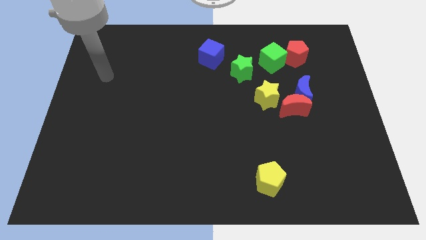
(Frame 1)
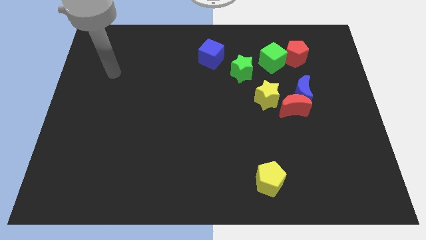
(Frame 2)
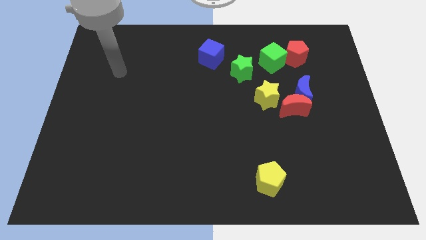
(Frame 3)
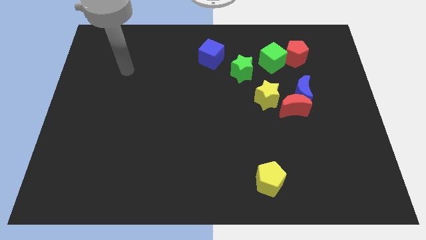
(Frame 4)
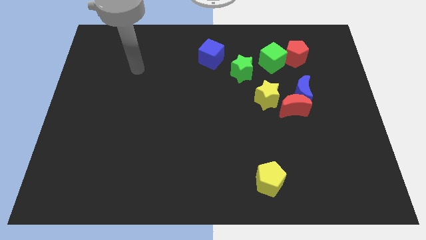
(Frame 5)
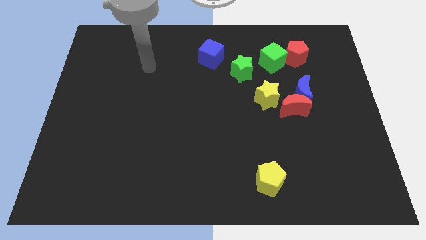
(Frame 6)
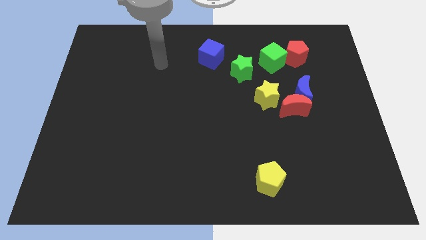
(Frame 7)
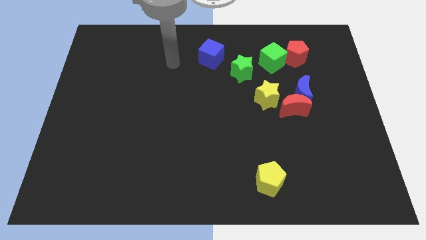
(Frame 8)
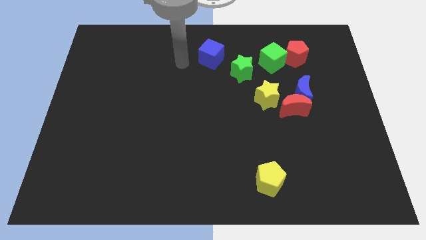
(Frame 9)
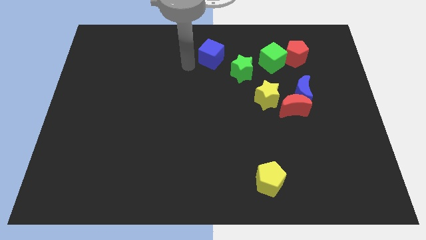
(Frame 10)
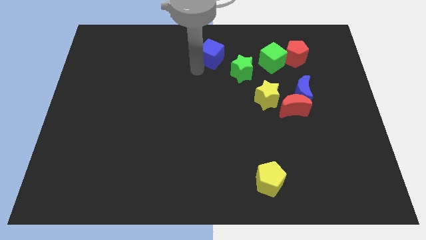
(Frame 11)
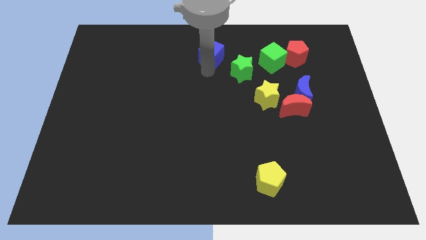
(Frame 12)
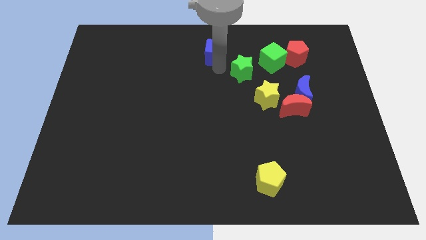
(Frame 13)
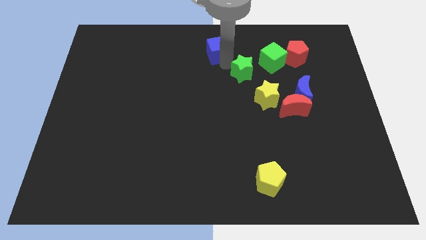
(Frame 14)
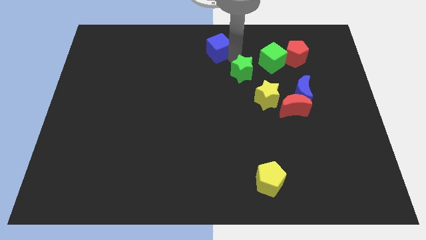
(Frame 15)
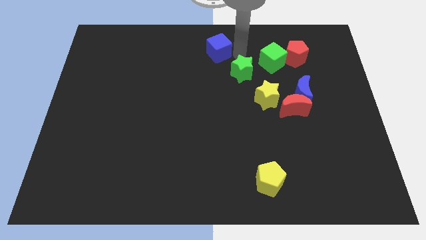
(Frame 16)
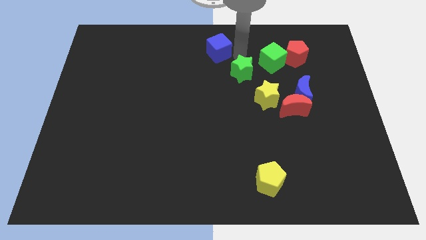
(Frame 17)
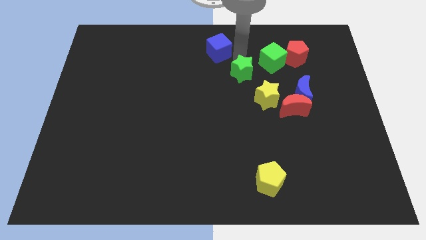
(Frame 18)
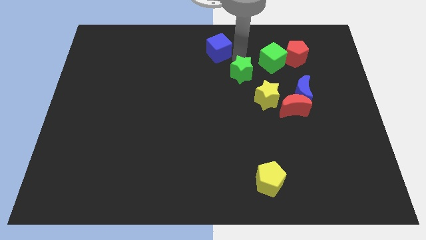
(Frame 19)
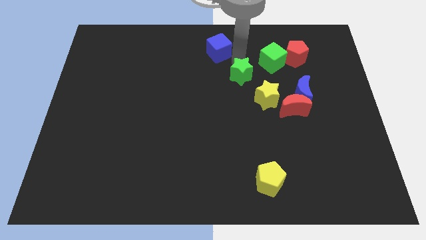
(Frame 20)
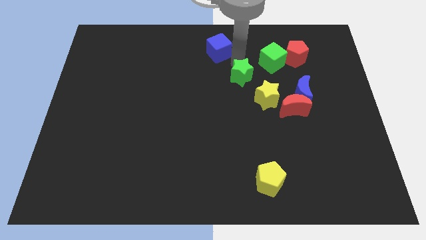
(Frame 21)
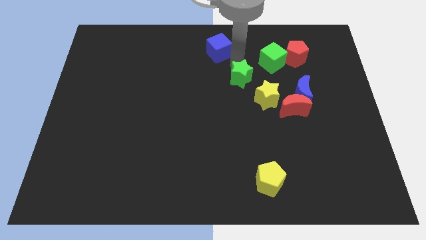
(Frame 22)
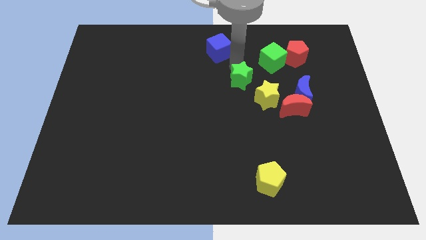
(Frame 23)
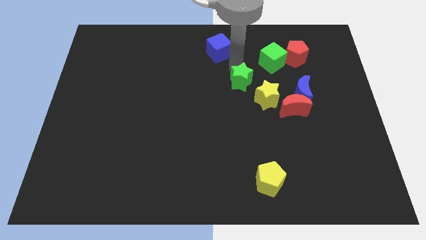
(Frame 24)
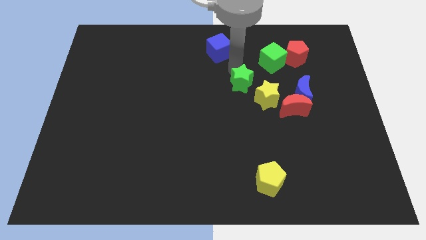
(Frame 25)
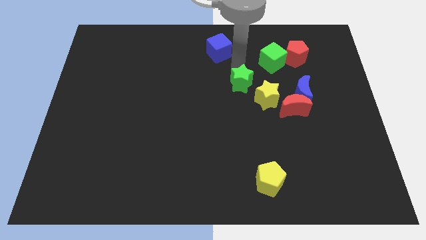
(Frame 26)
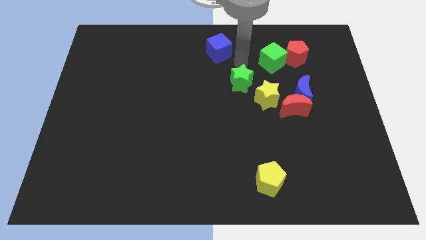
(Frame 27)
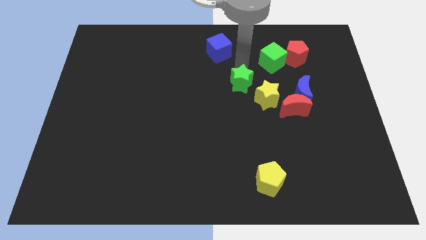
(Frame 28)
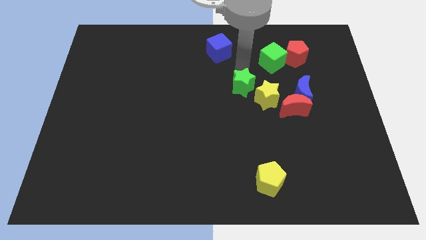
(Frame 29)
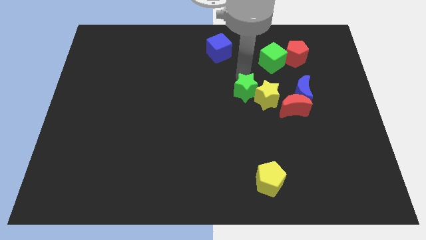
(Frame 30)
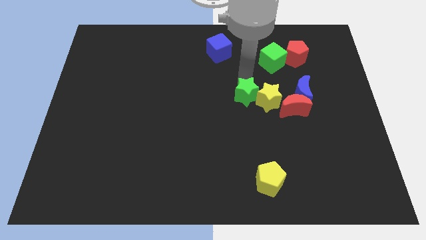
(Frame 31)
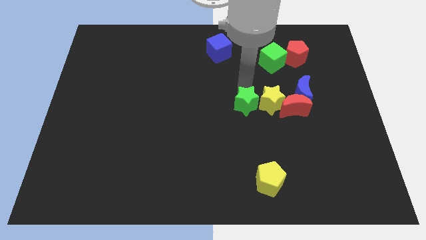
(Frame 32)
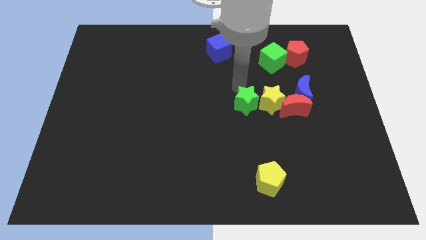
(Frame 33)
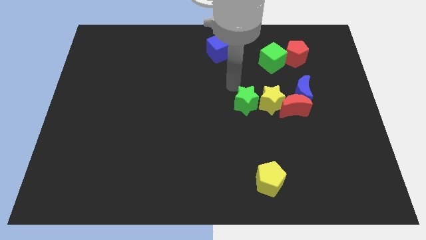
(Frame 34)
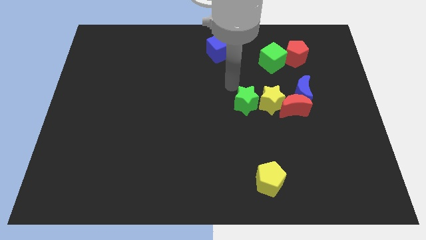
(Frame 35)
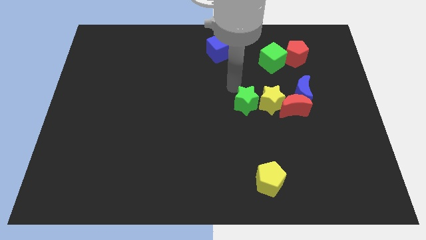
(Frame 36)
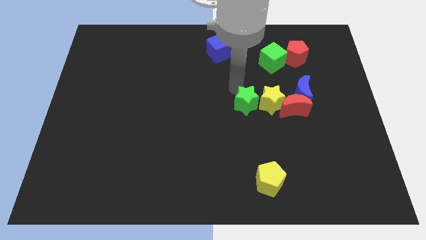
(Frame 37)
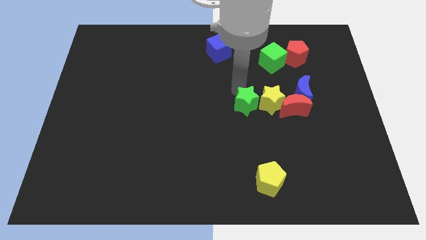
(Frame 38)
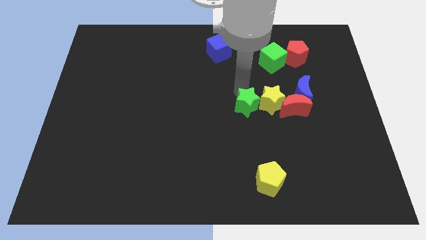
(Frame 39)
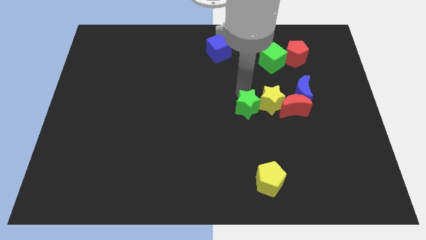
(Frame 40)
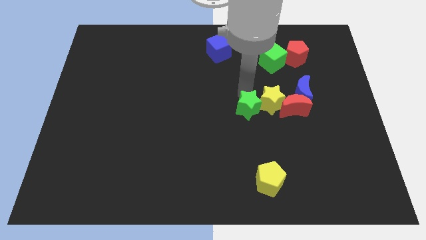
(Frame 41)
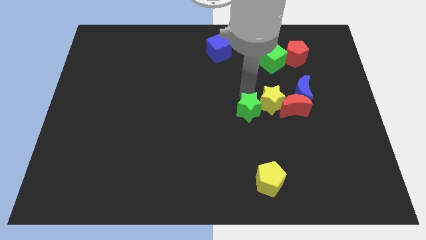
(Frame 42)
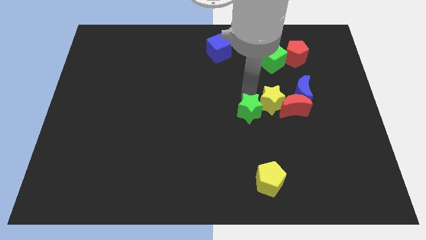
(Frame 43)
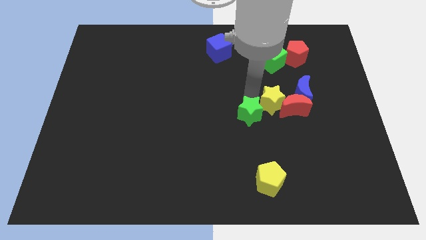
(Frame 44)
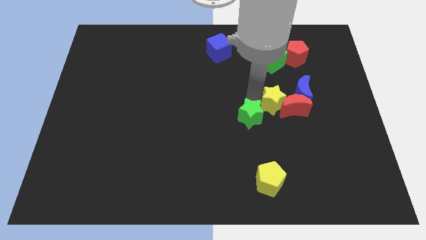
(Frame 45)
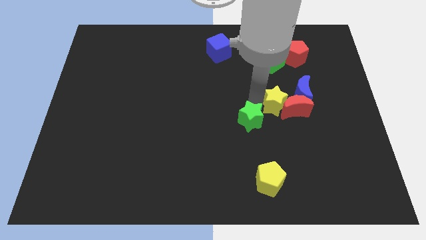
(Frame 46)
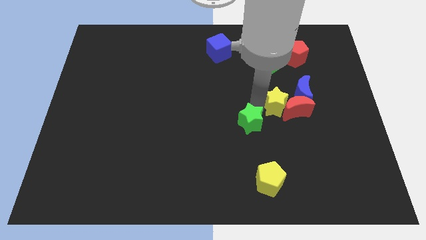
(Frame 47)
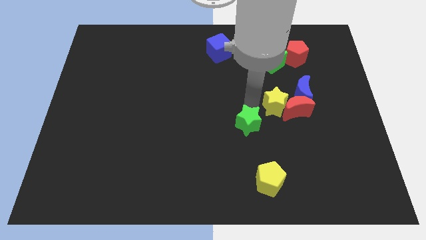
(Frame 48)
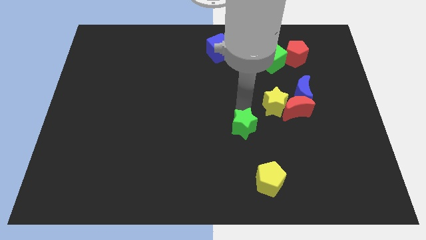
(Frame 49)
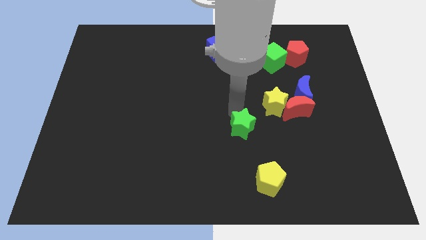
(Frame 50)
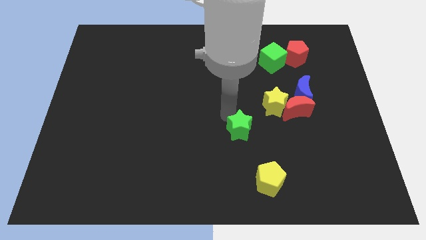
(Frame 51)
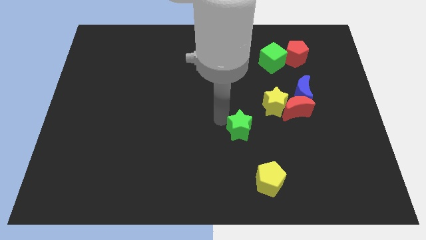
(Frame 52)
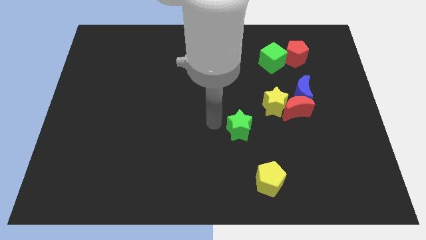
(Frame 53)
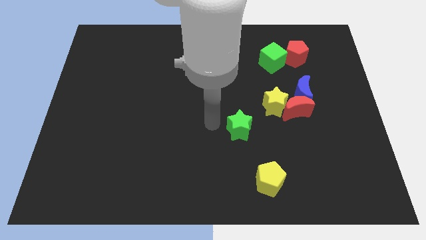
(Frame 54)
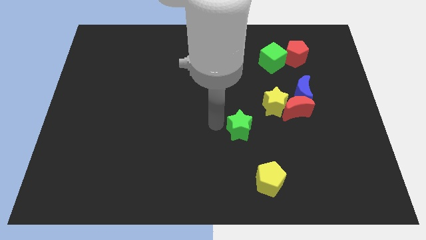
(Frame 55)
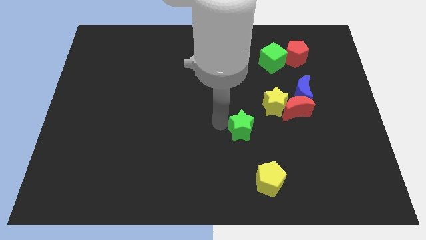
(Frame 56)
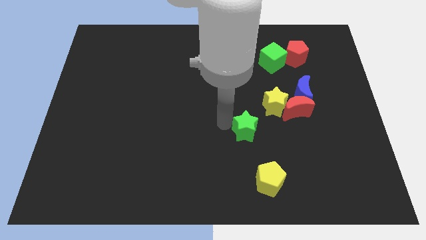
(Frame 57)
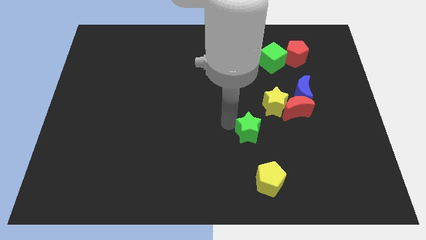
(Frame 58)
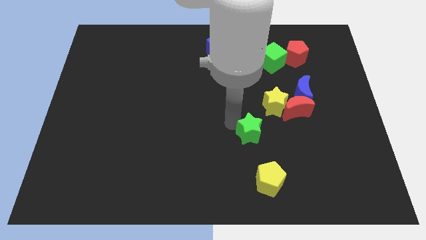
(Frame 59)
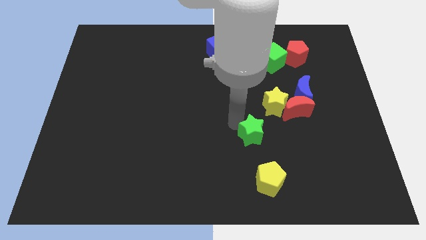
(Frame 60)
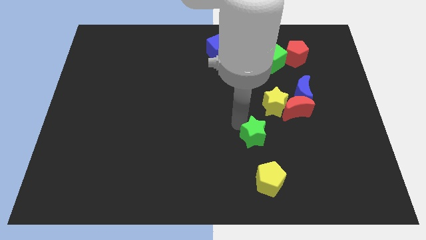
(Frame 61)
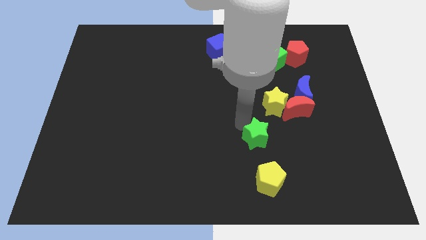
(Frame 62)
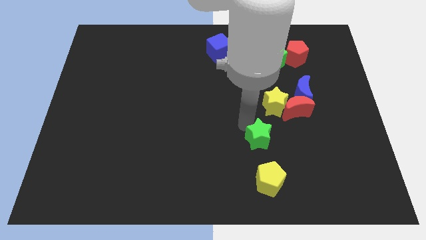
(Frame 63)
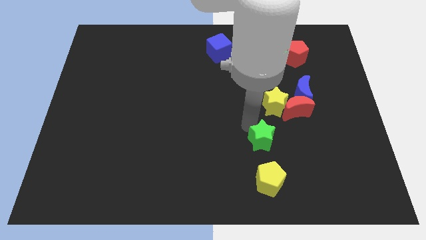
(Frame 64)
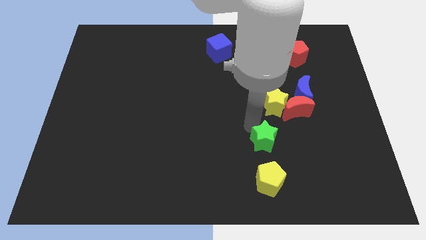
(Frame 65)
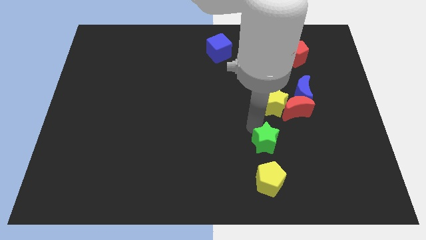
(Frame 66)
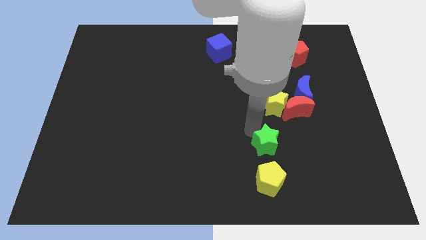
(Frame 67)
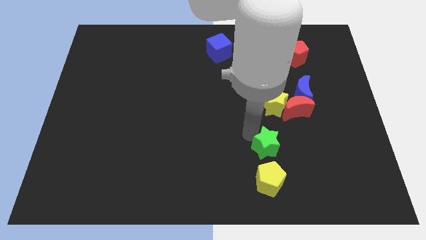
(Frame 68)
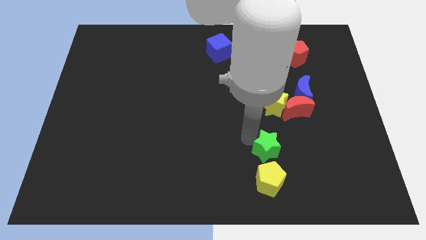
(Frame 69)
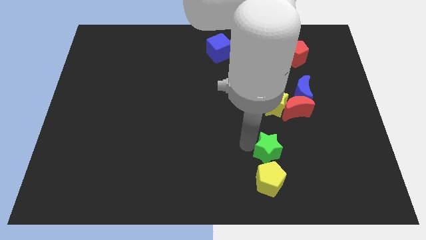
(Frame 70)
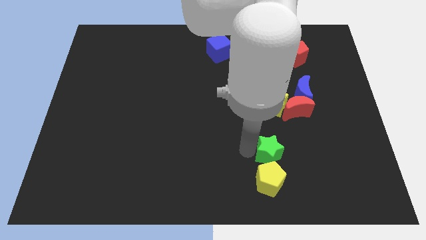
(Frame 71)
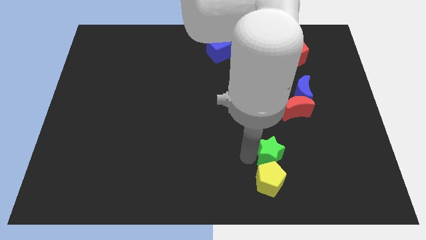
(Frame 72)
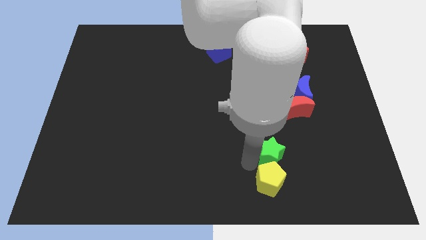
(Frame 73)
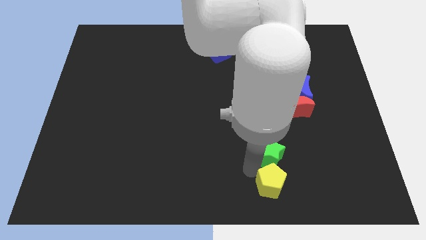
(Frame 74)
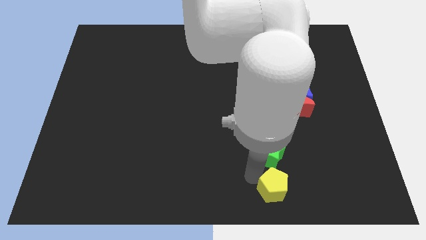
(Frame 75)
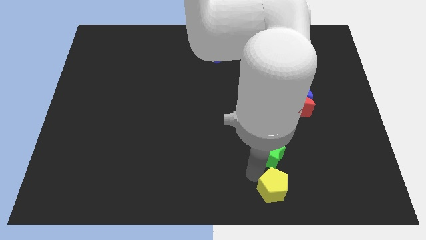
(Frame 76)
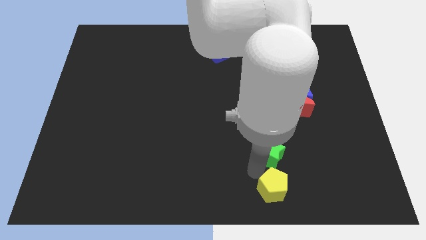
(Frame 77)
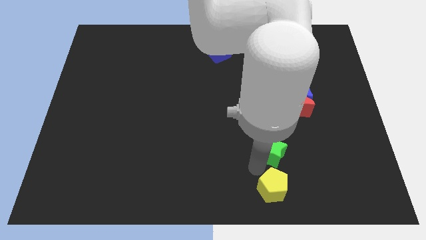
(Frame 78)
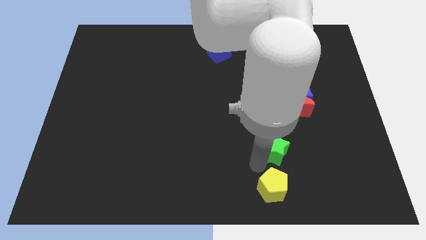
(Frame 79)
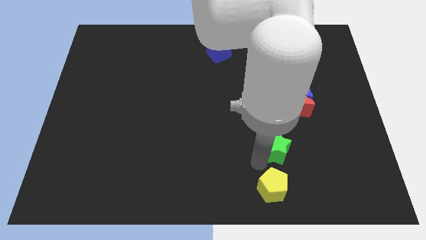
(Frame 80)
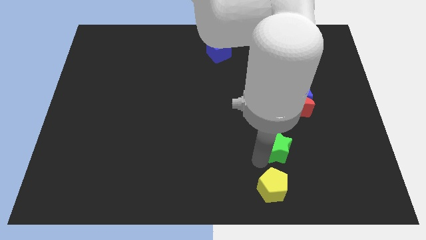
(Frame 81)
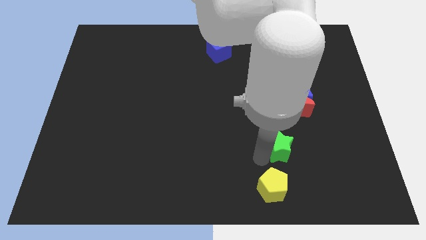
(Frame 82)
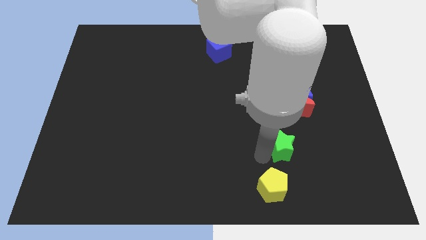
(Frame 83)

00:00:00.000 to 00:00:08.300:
slide the green star below the red moon

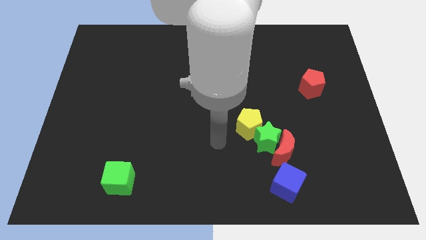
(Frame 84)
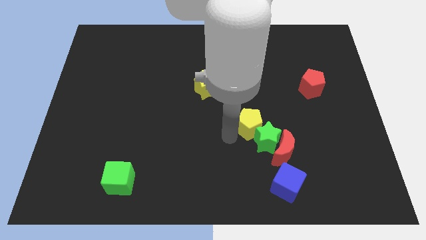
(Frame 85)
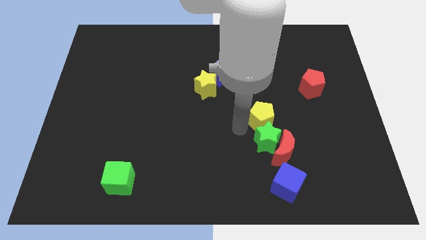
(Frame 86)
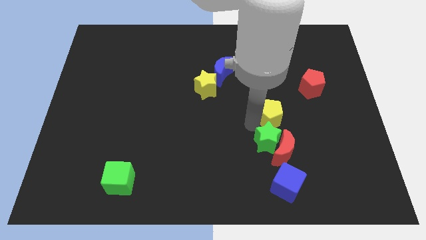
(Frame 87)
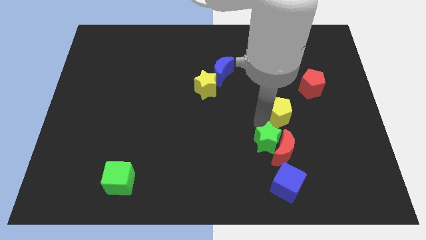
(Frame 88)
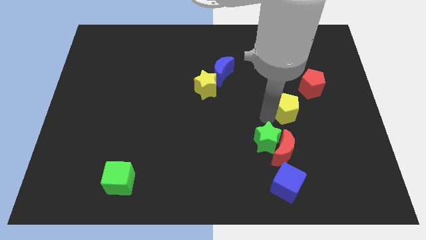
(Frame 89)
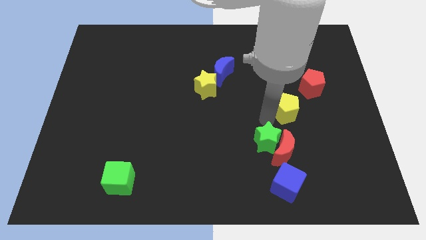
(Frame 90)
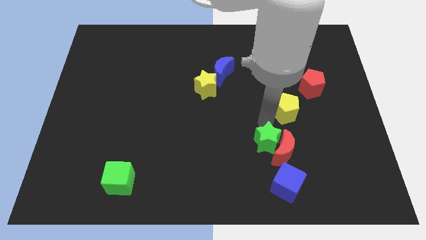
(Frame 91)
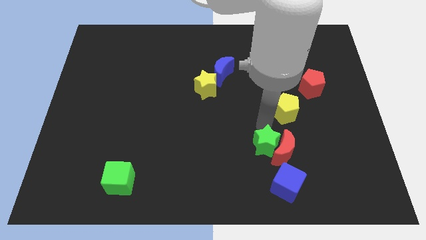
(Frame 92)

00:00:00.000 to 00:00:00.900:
slide the green star diagonally down and to the left of the red moon
